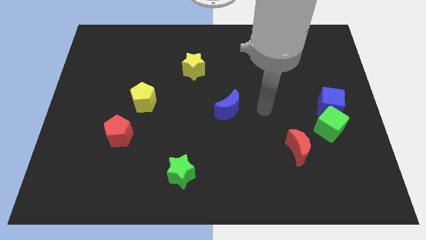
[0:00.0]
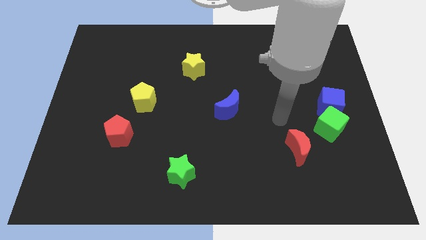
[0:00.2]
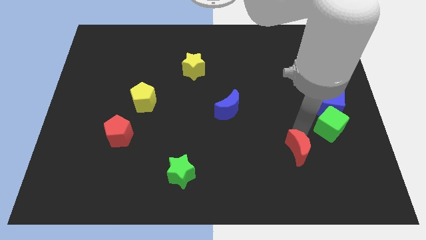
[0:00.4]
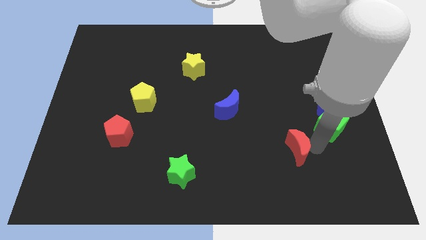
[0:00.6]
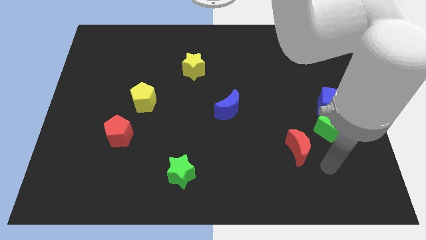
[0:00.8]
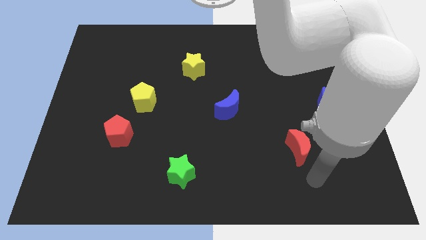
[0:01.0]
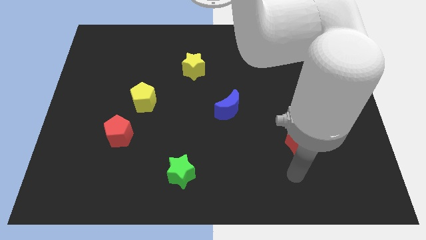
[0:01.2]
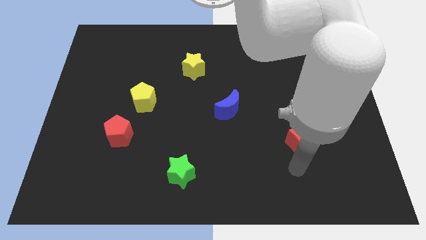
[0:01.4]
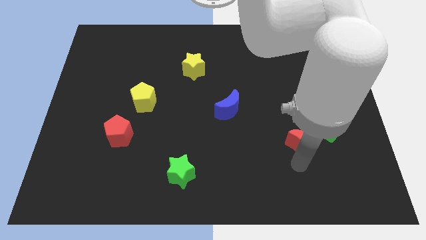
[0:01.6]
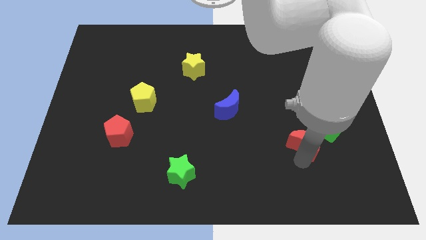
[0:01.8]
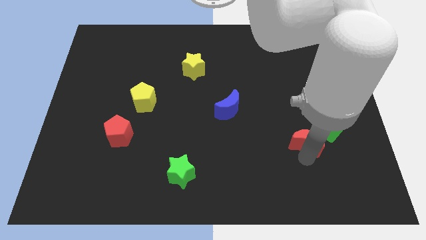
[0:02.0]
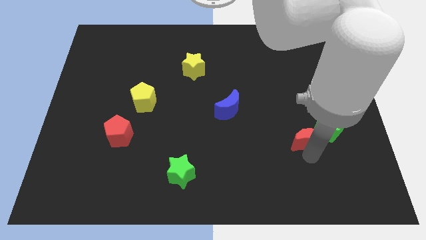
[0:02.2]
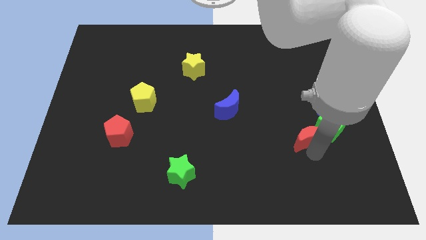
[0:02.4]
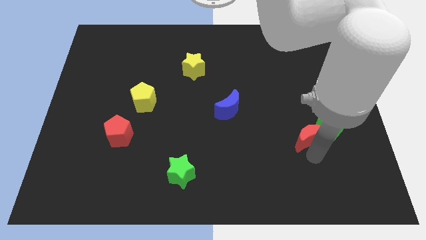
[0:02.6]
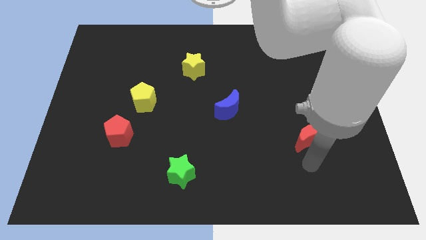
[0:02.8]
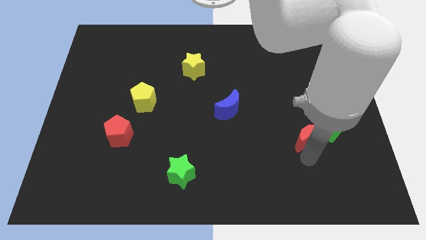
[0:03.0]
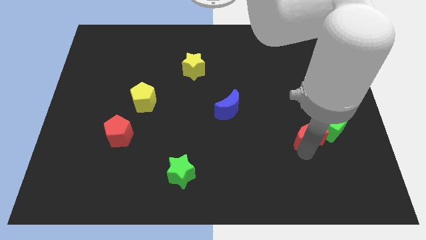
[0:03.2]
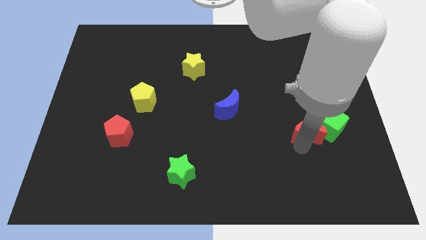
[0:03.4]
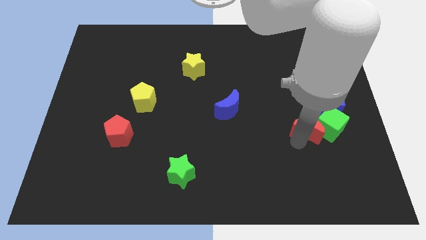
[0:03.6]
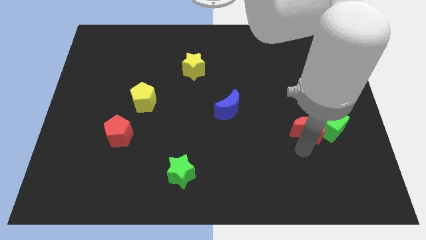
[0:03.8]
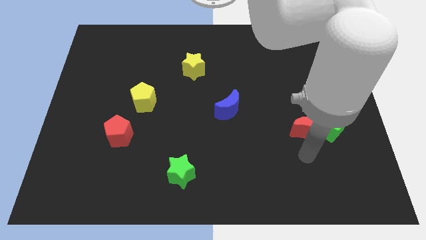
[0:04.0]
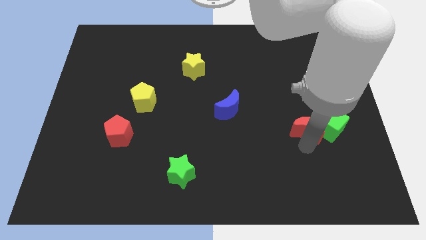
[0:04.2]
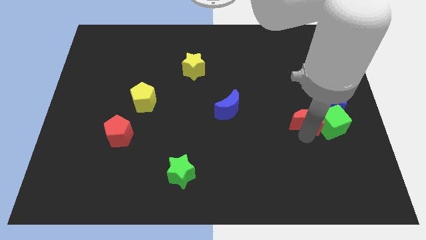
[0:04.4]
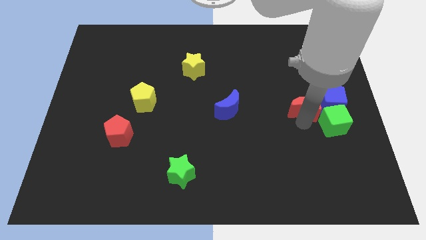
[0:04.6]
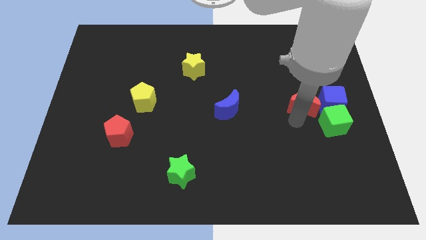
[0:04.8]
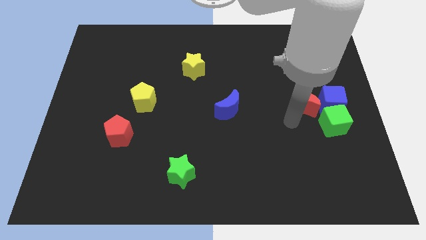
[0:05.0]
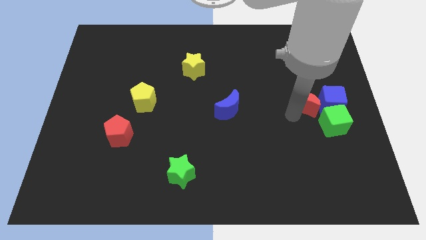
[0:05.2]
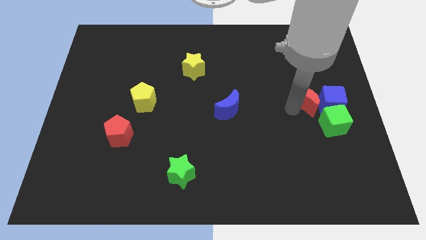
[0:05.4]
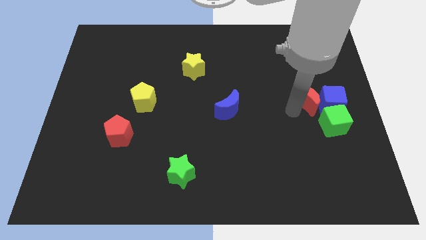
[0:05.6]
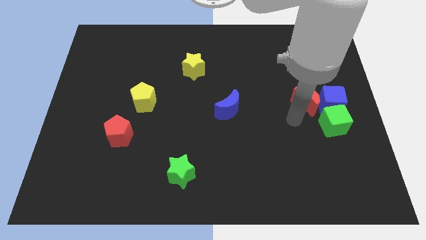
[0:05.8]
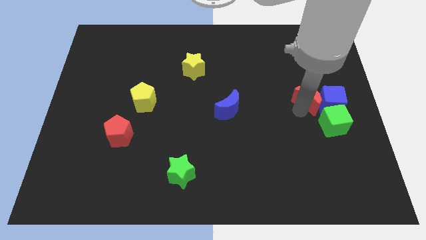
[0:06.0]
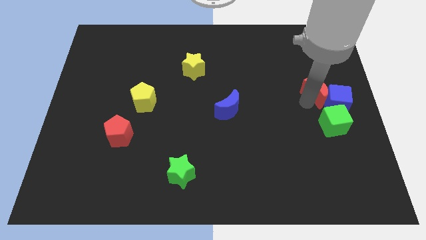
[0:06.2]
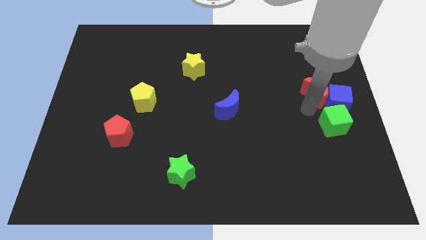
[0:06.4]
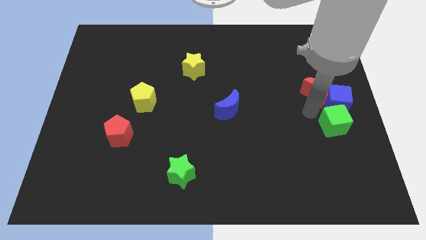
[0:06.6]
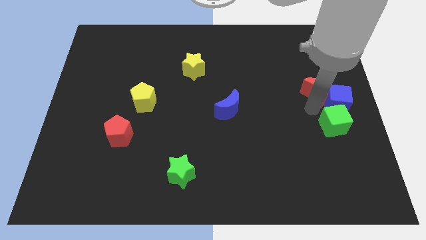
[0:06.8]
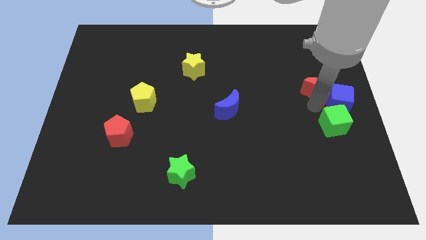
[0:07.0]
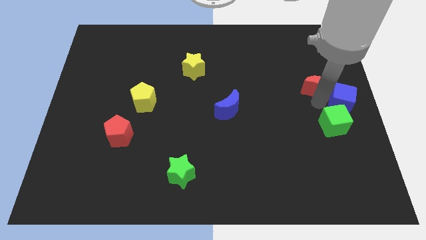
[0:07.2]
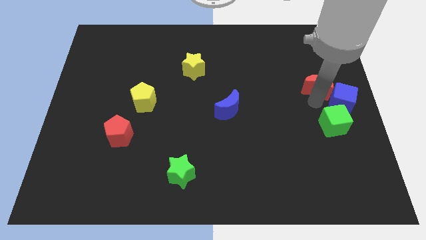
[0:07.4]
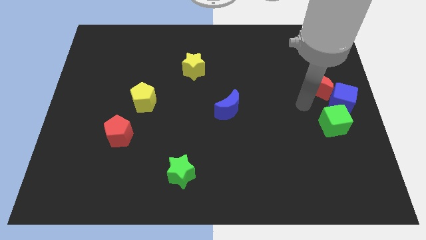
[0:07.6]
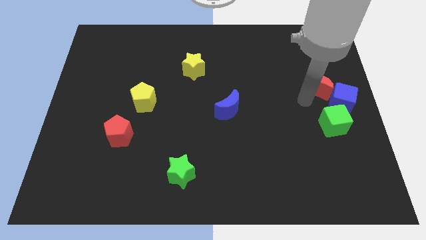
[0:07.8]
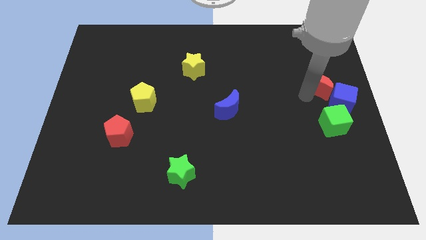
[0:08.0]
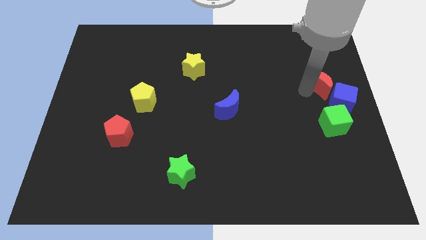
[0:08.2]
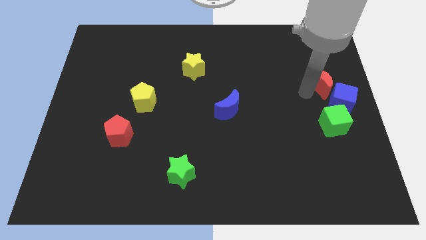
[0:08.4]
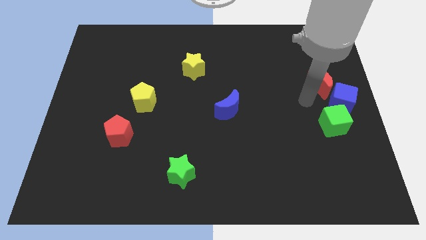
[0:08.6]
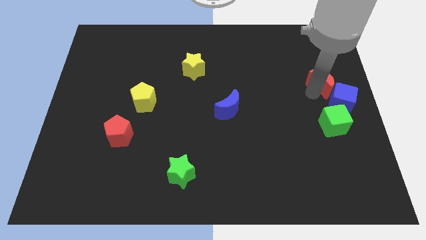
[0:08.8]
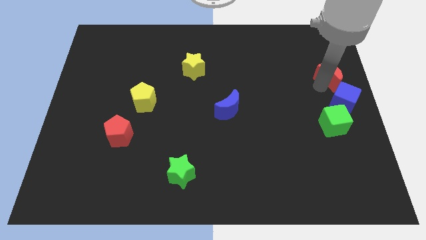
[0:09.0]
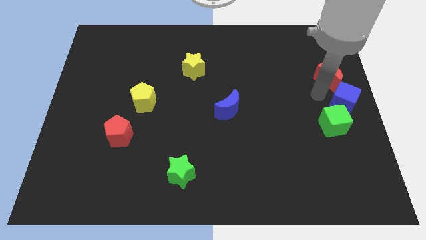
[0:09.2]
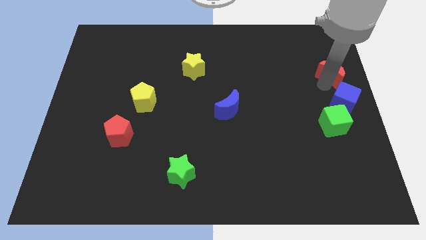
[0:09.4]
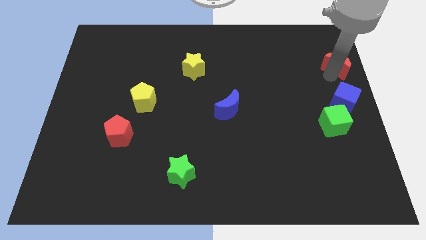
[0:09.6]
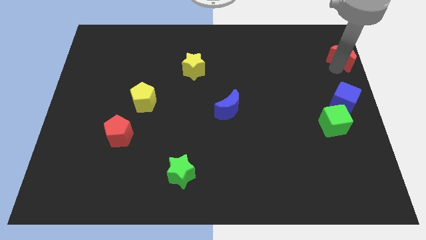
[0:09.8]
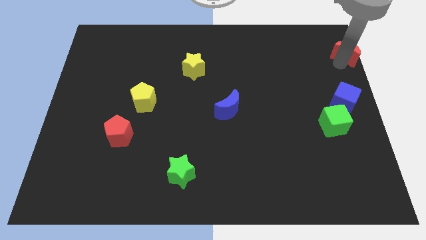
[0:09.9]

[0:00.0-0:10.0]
push the red moon to the top right of the board

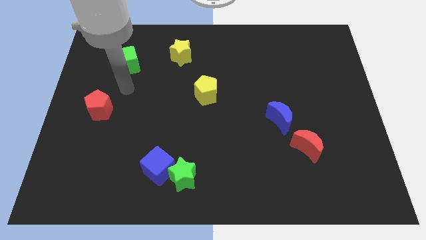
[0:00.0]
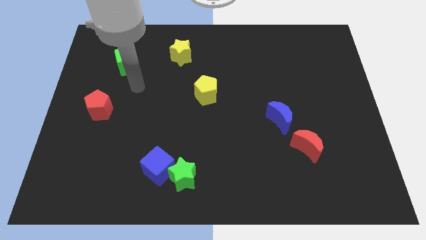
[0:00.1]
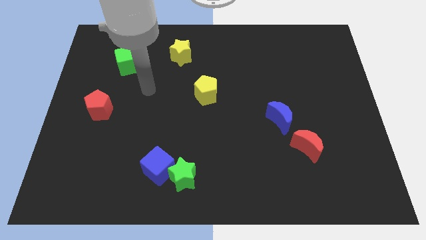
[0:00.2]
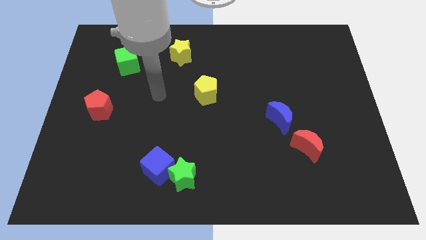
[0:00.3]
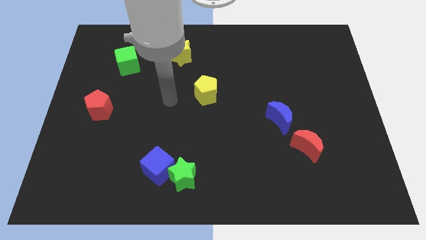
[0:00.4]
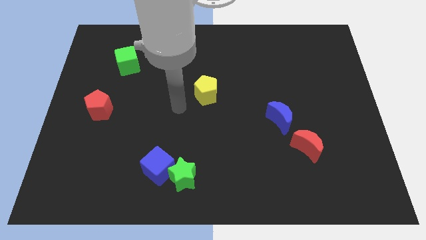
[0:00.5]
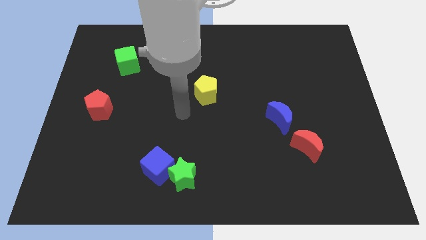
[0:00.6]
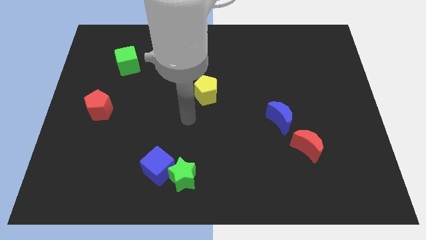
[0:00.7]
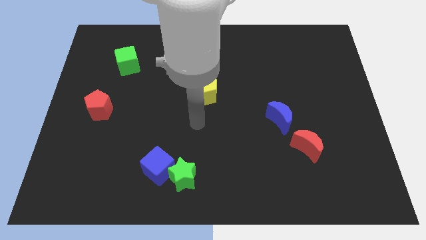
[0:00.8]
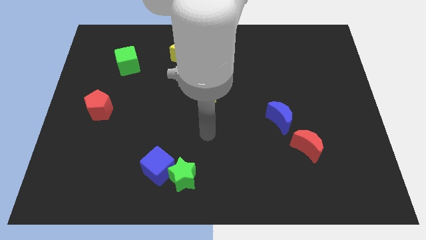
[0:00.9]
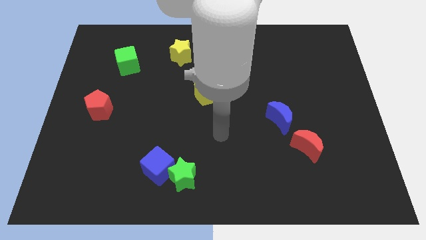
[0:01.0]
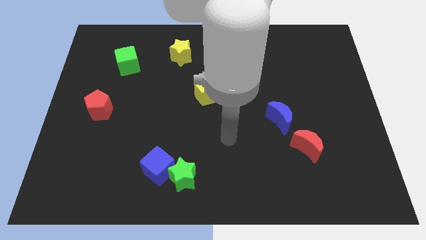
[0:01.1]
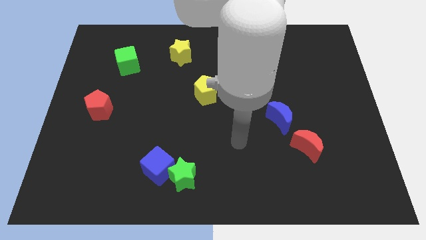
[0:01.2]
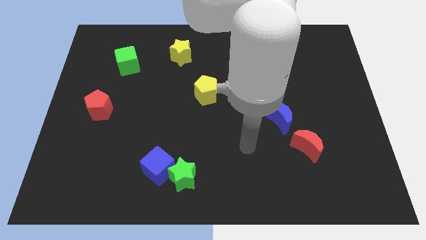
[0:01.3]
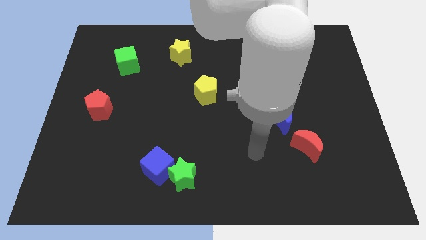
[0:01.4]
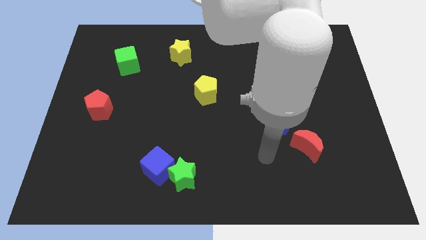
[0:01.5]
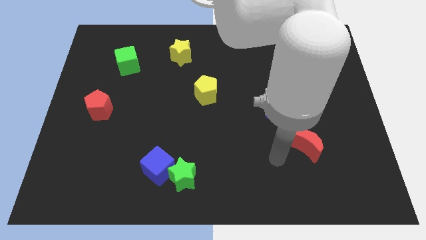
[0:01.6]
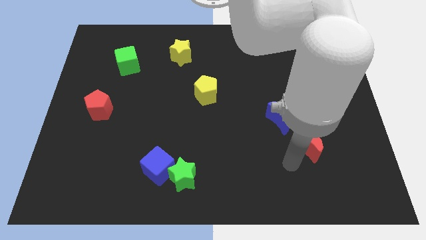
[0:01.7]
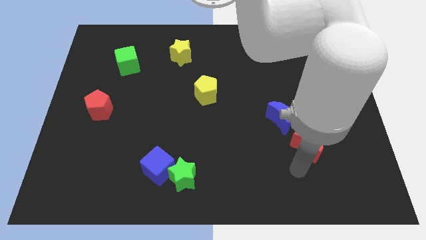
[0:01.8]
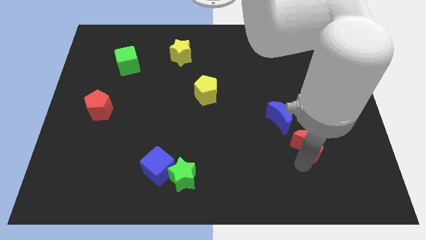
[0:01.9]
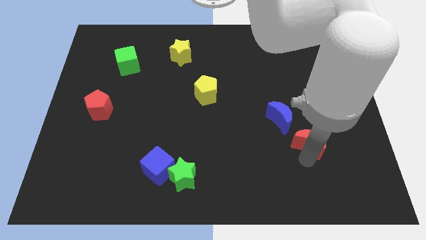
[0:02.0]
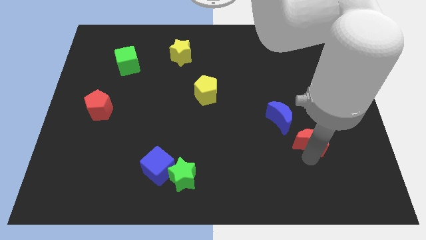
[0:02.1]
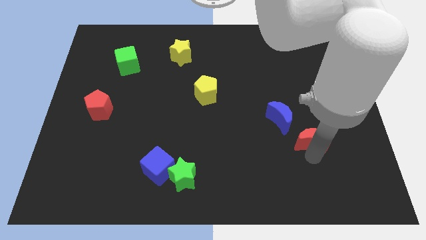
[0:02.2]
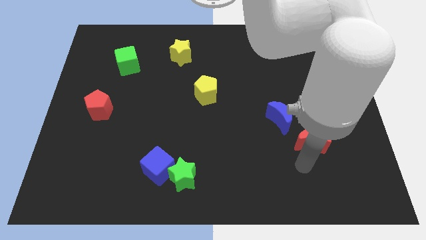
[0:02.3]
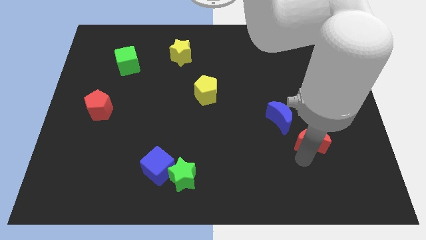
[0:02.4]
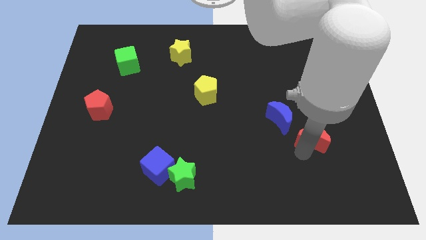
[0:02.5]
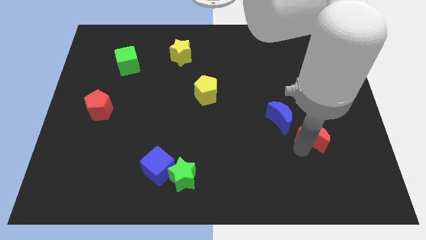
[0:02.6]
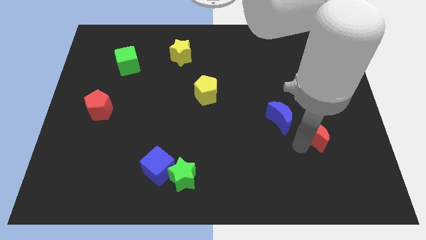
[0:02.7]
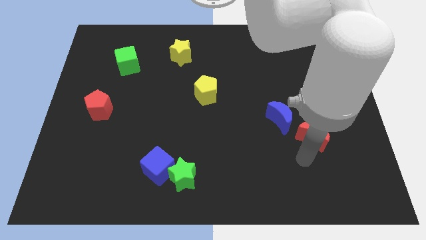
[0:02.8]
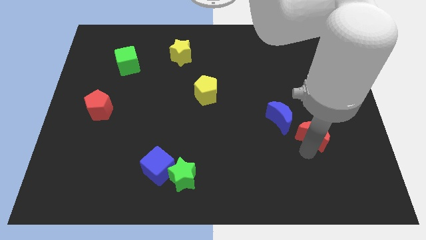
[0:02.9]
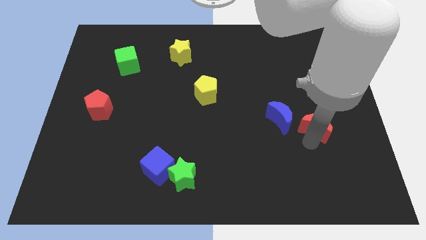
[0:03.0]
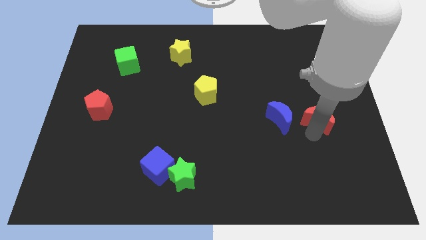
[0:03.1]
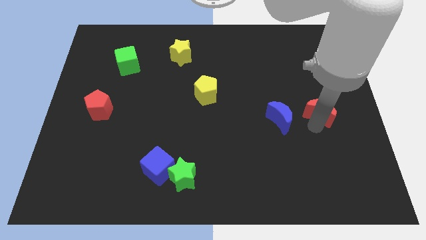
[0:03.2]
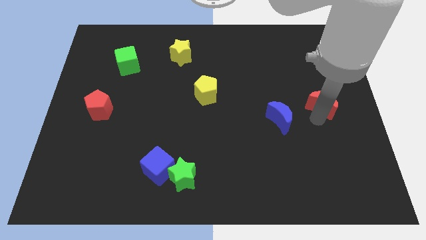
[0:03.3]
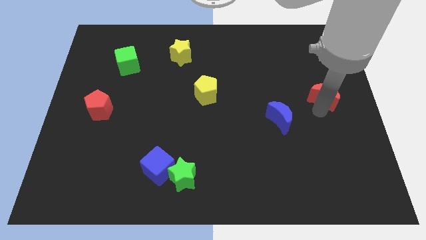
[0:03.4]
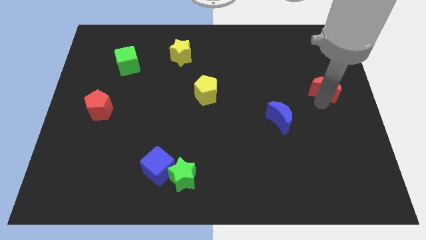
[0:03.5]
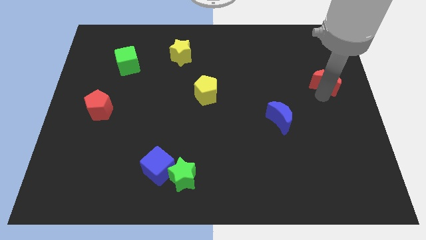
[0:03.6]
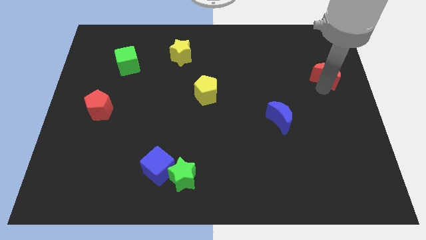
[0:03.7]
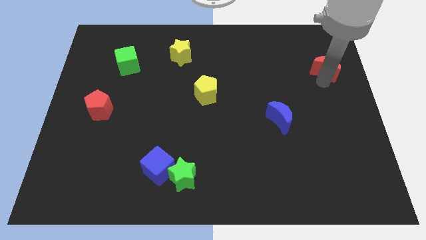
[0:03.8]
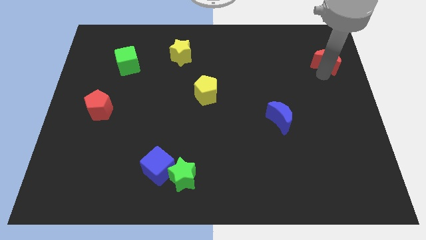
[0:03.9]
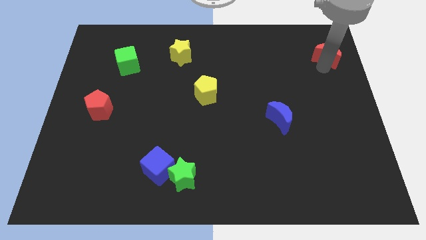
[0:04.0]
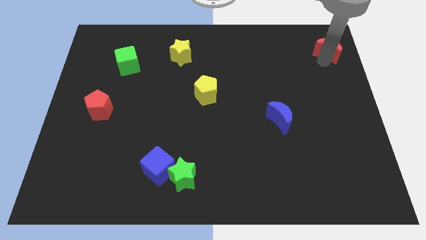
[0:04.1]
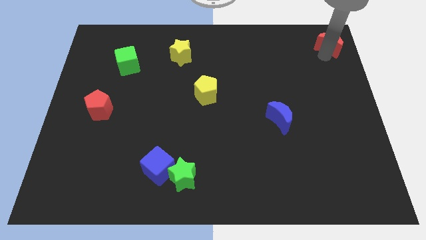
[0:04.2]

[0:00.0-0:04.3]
put the red moon to the top right of the board
